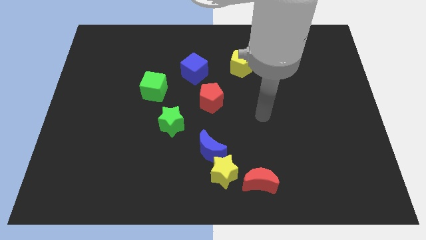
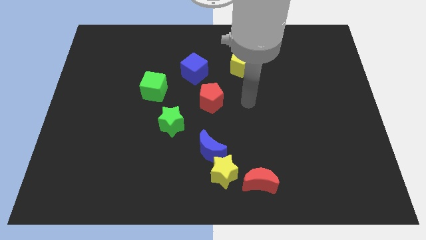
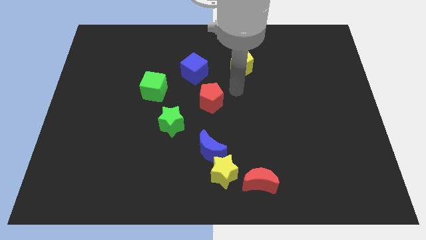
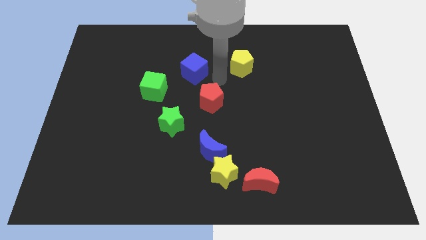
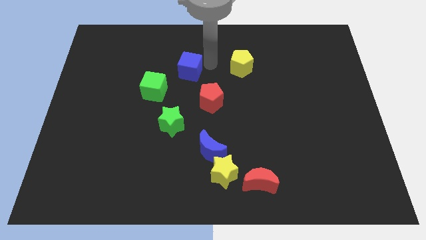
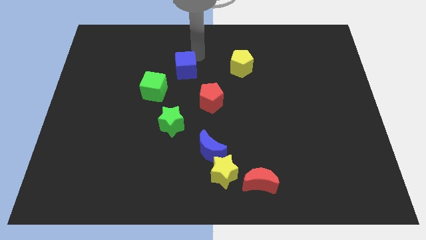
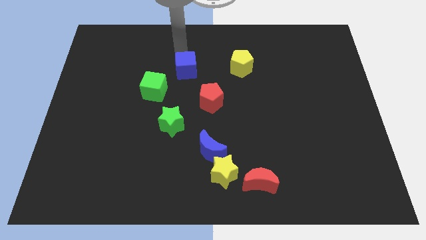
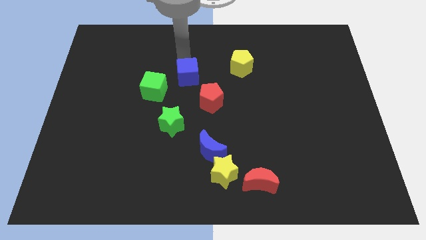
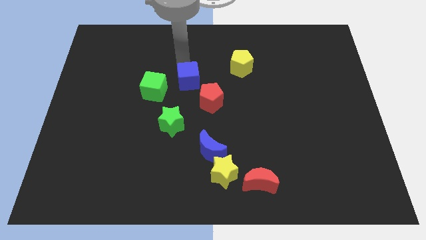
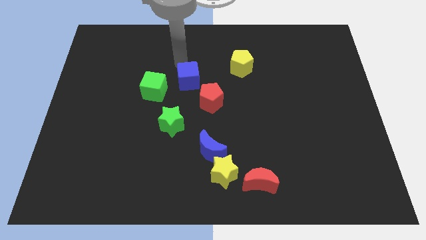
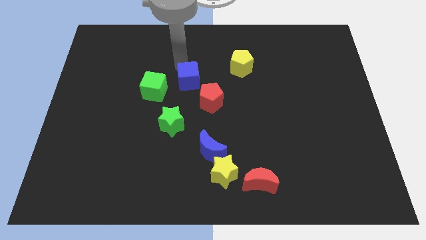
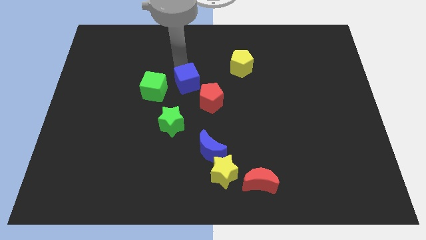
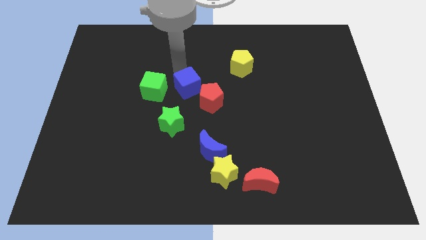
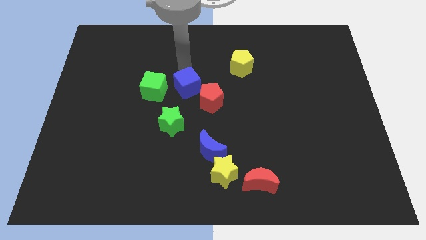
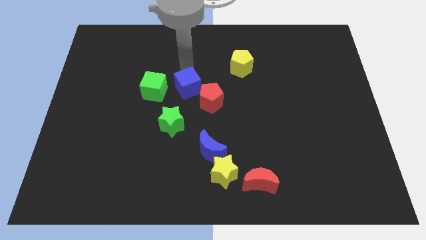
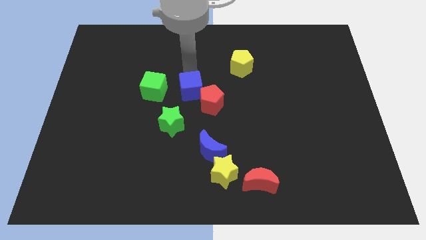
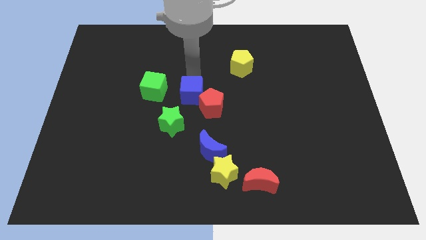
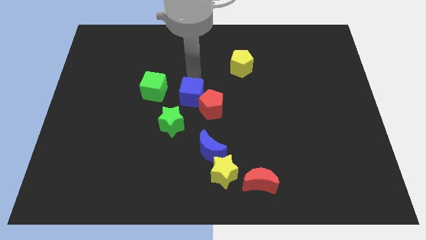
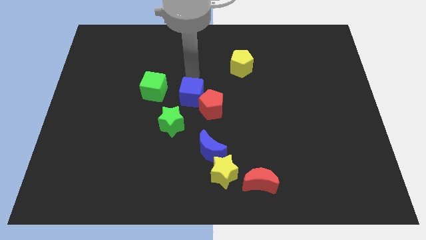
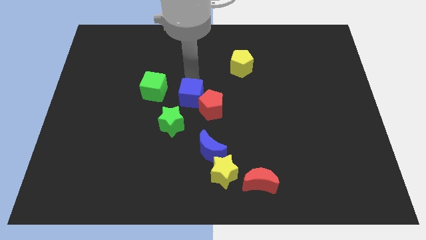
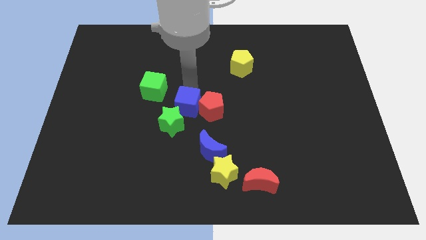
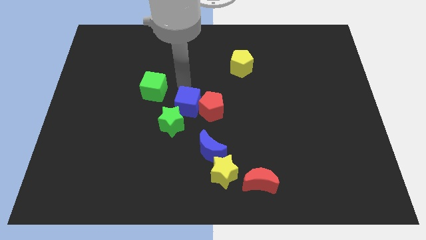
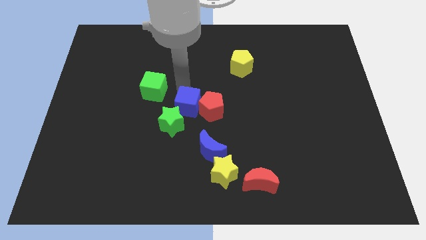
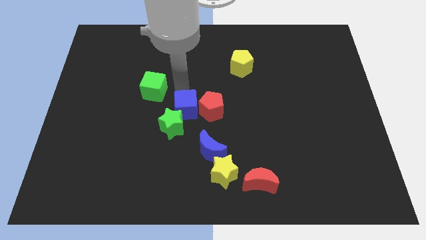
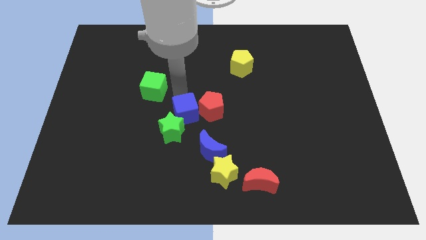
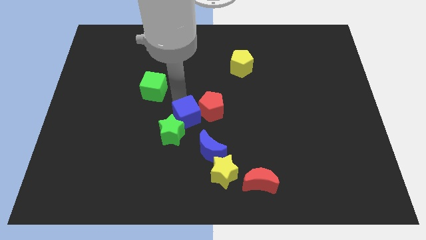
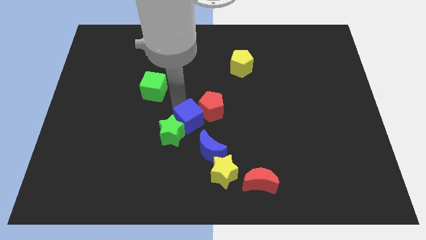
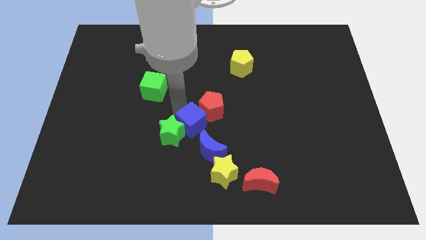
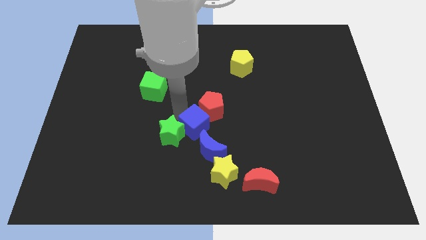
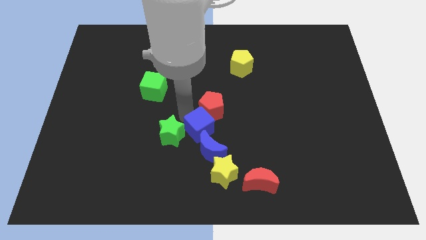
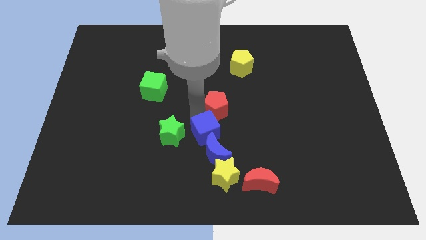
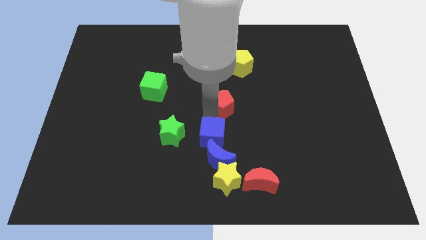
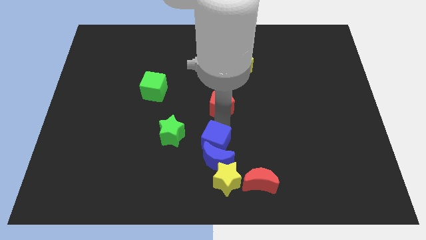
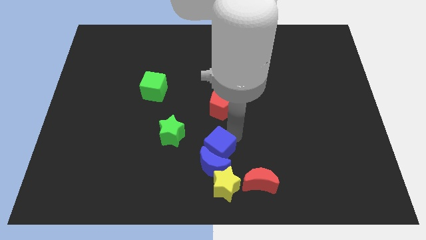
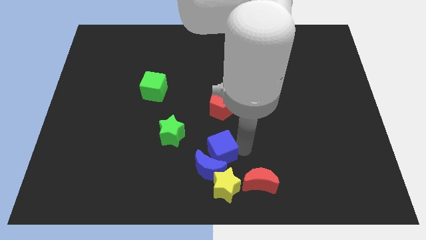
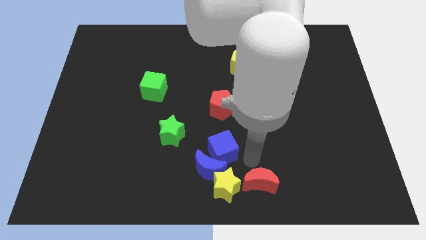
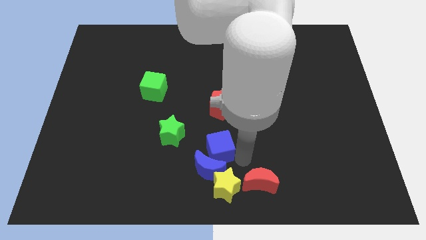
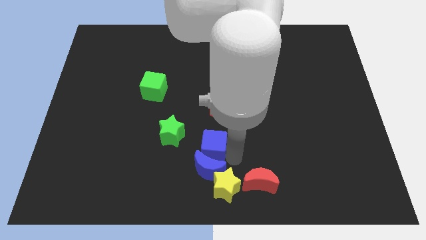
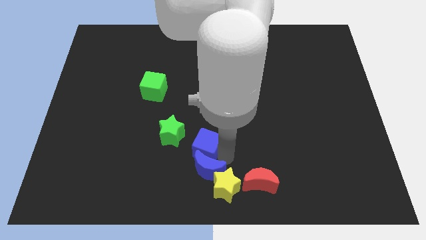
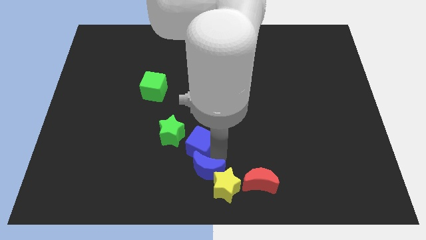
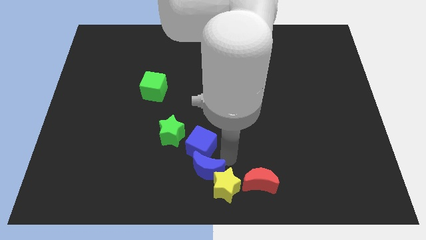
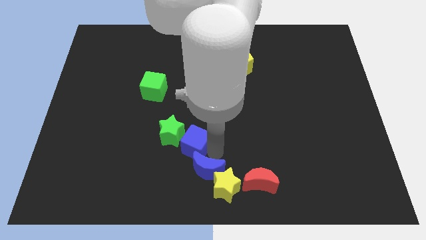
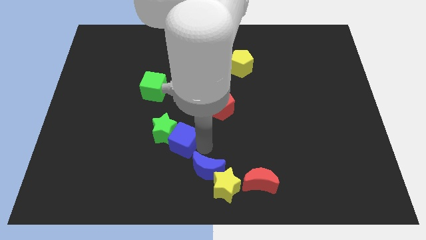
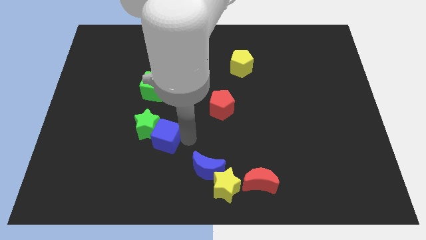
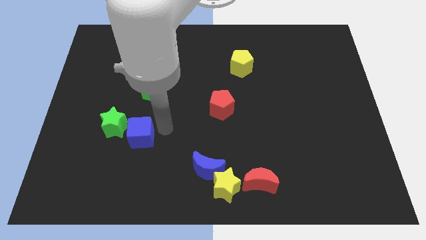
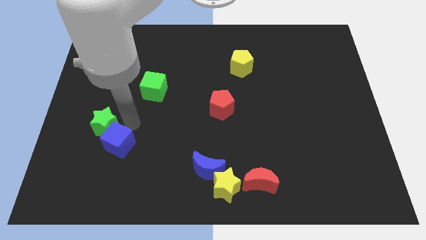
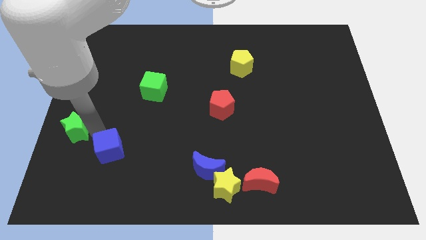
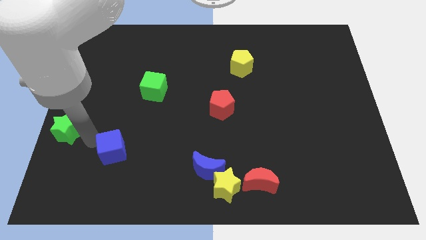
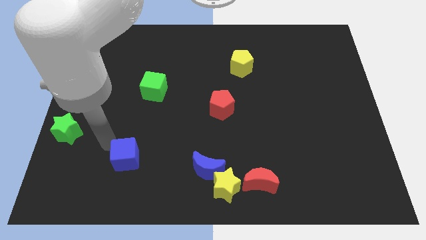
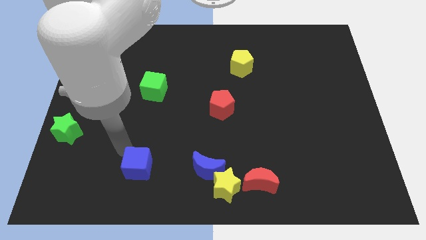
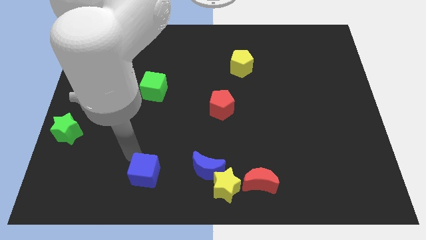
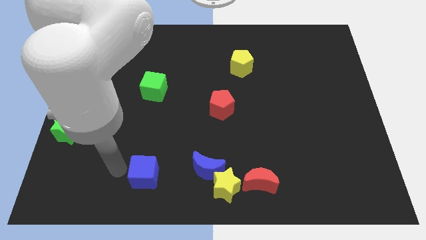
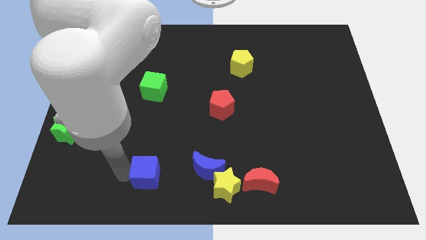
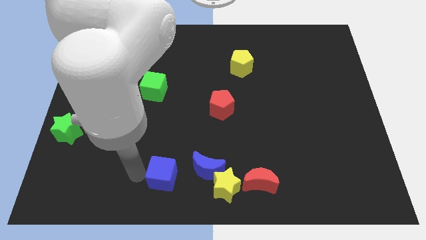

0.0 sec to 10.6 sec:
put the blue cube to the bottom side
